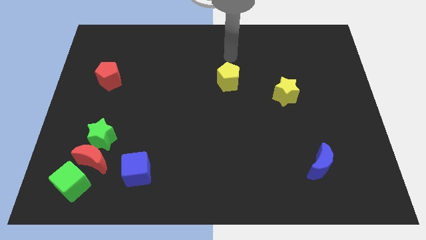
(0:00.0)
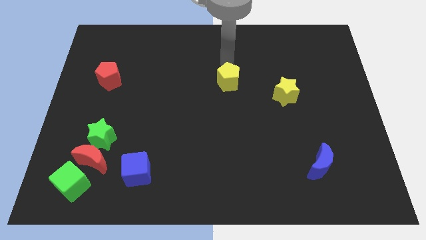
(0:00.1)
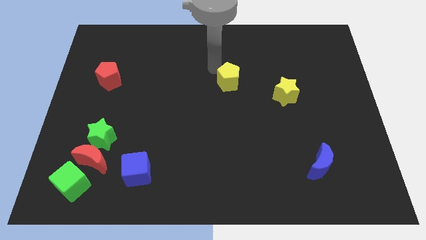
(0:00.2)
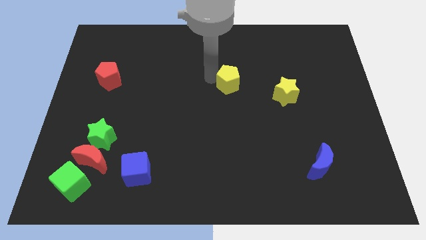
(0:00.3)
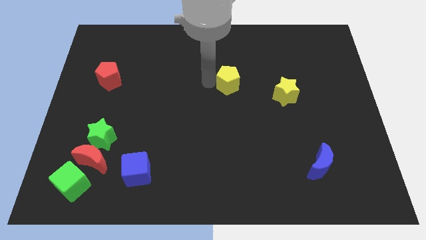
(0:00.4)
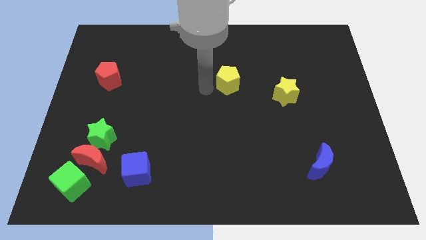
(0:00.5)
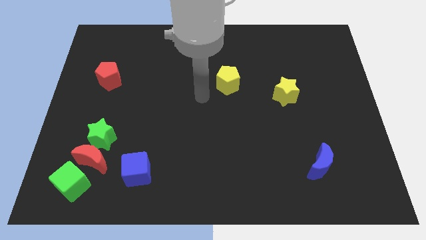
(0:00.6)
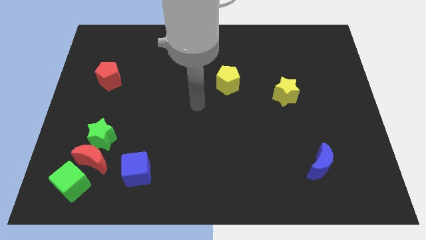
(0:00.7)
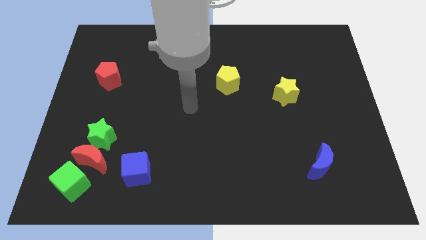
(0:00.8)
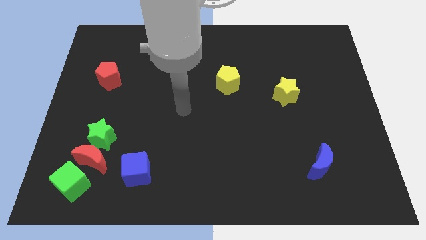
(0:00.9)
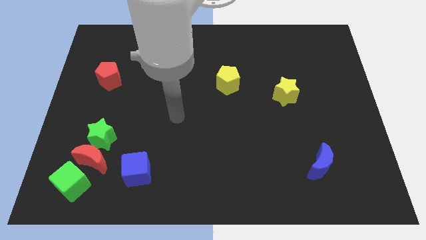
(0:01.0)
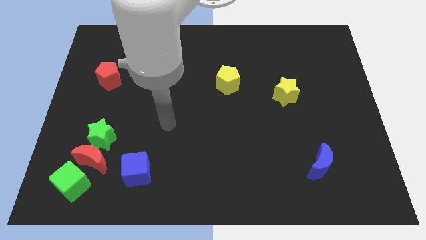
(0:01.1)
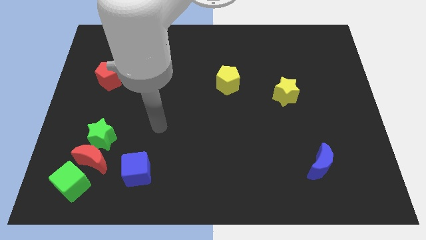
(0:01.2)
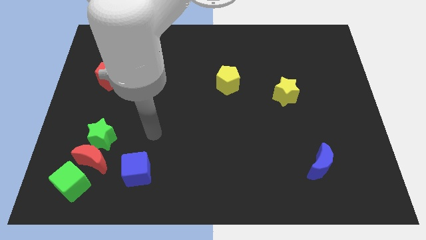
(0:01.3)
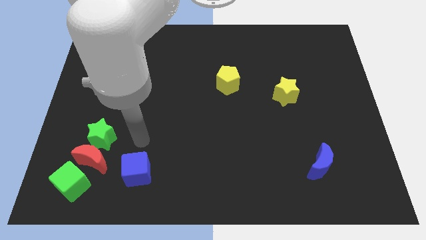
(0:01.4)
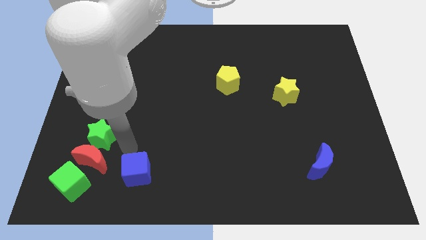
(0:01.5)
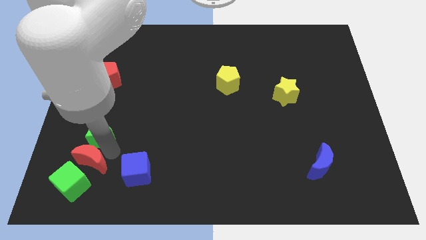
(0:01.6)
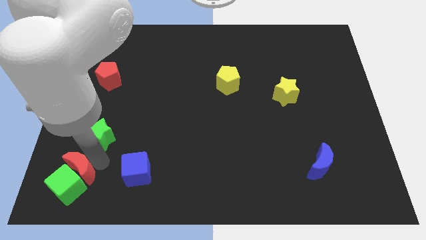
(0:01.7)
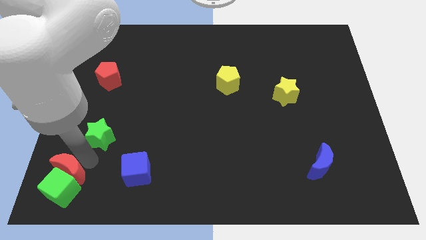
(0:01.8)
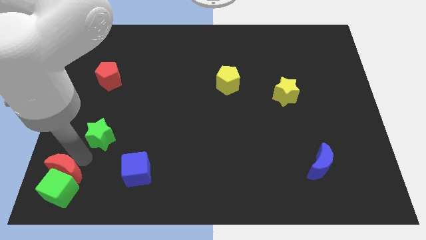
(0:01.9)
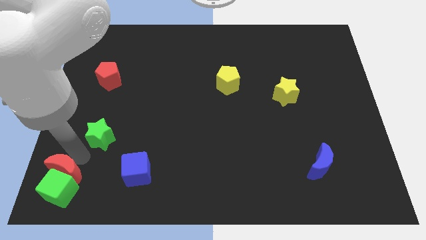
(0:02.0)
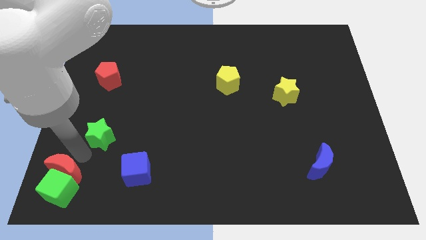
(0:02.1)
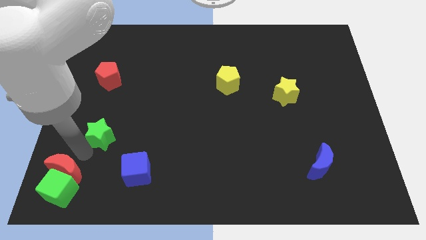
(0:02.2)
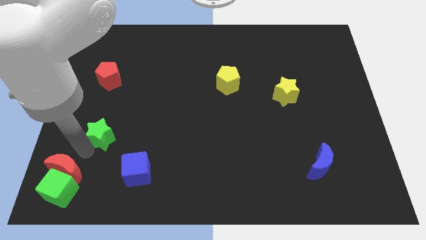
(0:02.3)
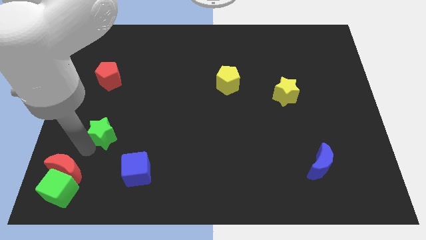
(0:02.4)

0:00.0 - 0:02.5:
pull the green star apart from the red moon

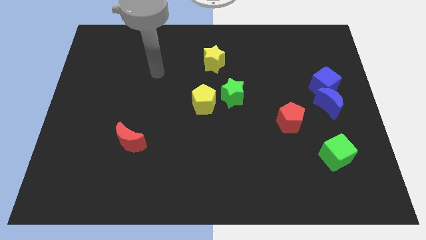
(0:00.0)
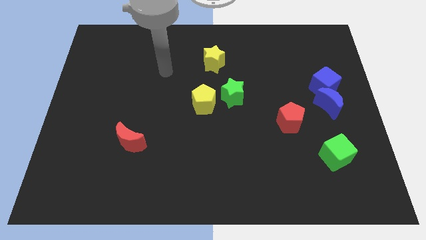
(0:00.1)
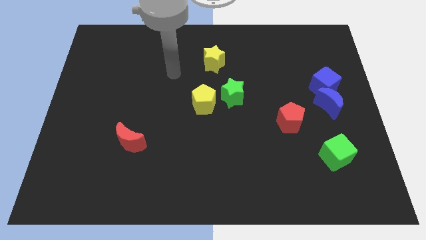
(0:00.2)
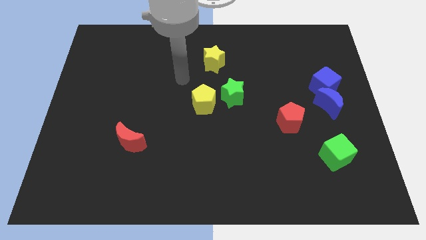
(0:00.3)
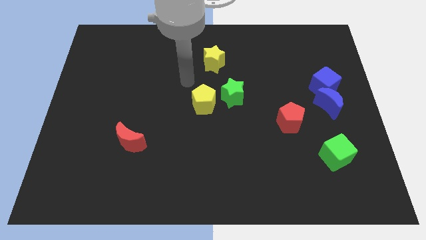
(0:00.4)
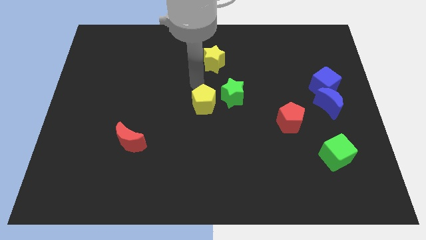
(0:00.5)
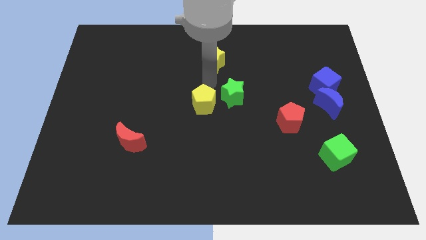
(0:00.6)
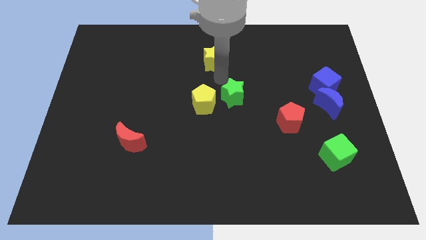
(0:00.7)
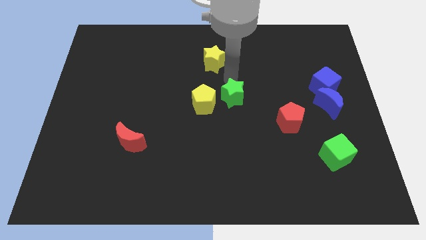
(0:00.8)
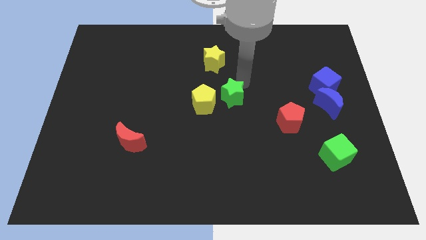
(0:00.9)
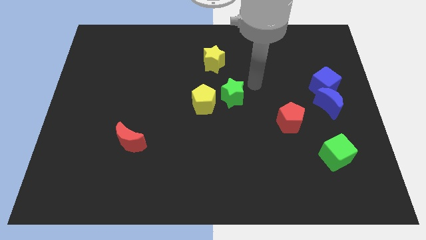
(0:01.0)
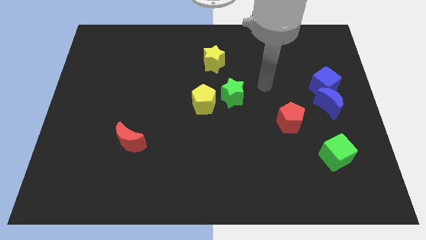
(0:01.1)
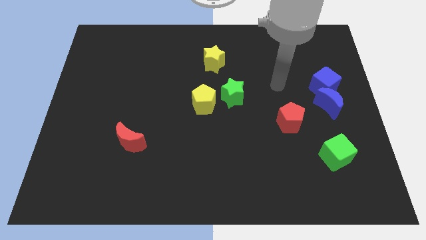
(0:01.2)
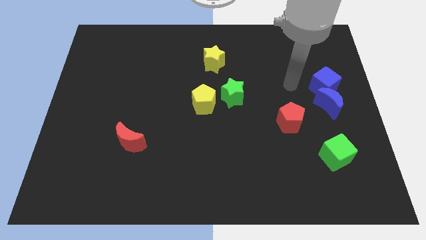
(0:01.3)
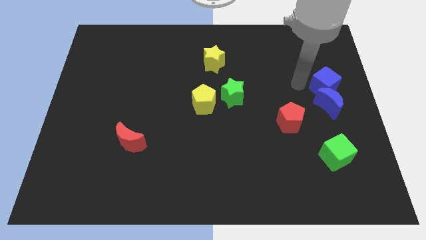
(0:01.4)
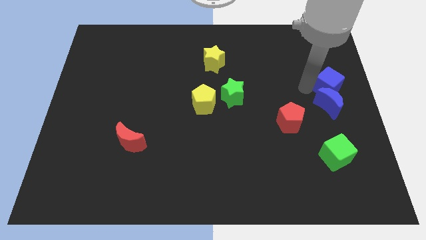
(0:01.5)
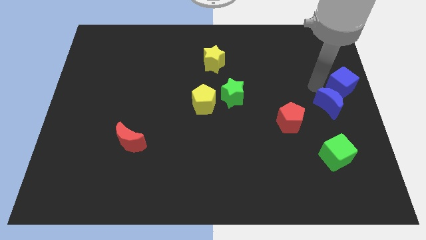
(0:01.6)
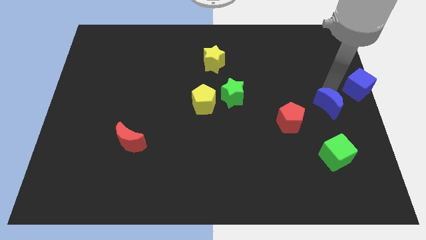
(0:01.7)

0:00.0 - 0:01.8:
pull the blue moon apart from the blue cube

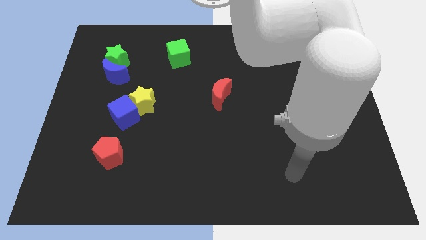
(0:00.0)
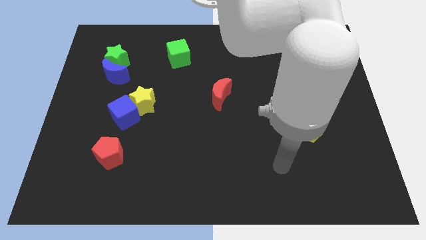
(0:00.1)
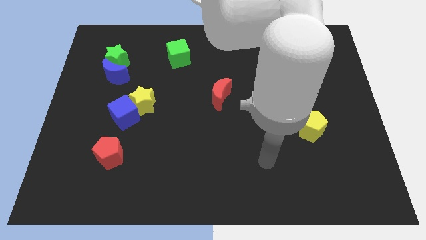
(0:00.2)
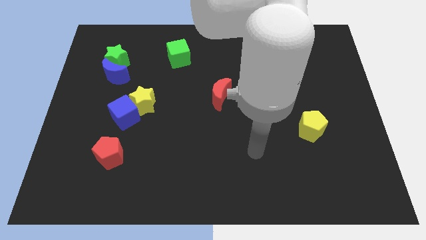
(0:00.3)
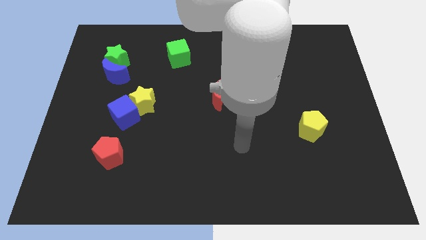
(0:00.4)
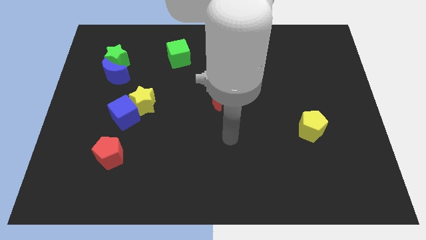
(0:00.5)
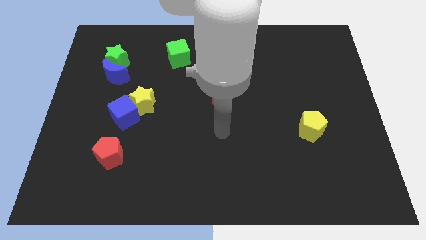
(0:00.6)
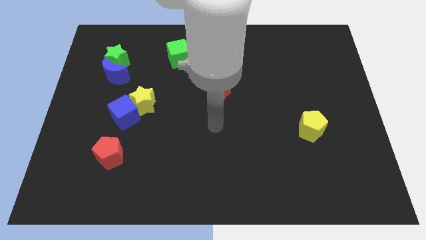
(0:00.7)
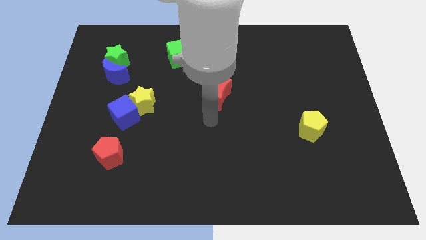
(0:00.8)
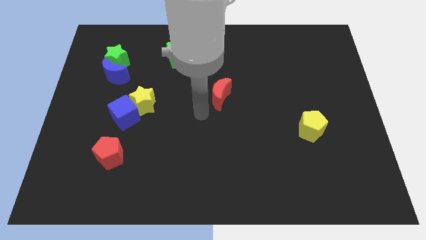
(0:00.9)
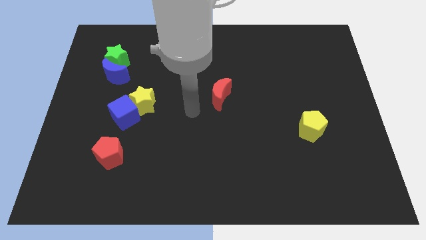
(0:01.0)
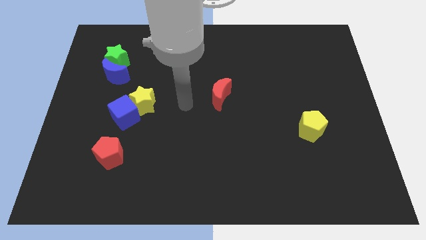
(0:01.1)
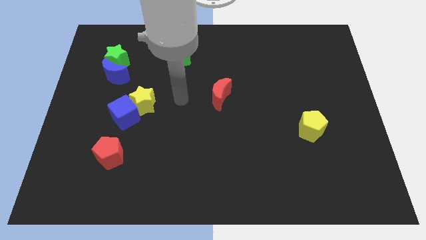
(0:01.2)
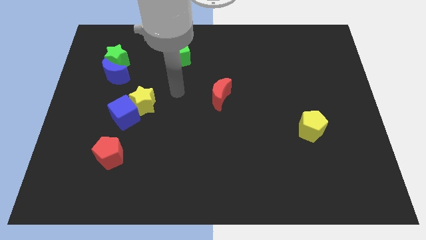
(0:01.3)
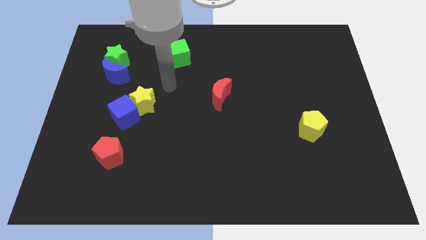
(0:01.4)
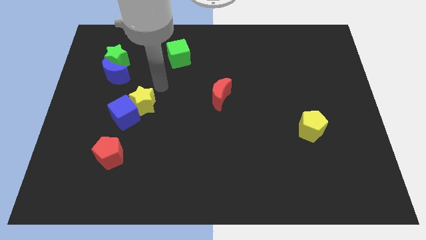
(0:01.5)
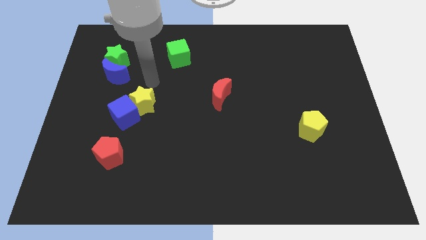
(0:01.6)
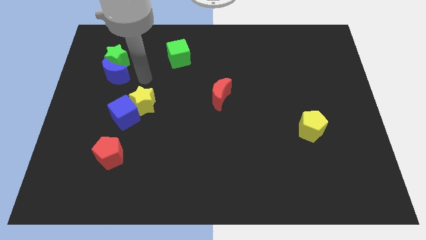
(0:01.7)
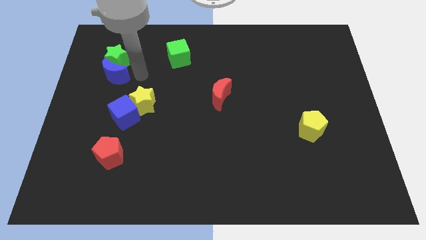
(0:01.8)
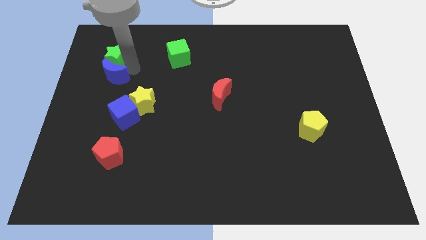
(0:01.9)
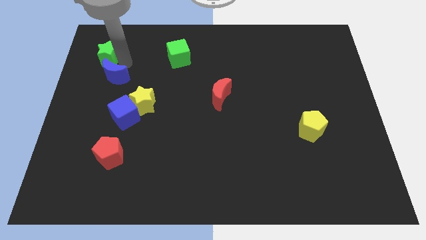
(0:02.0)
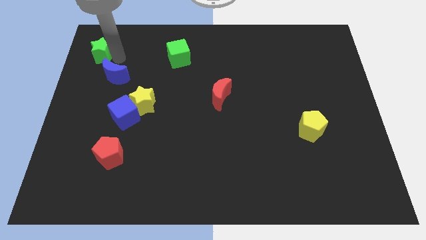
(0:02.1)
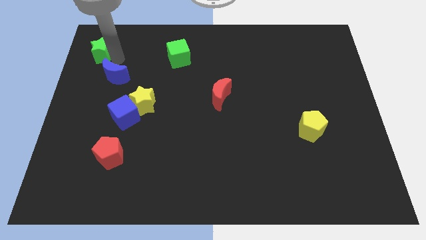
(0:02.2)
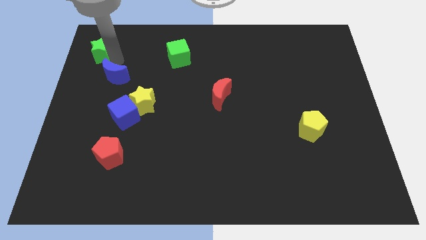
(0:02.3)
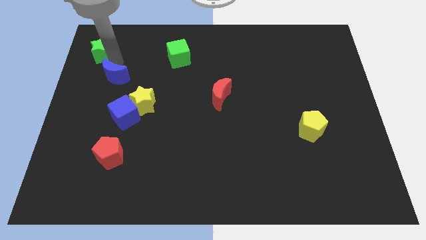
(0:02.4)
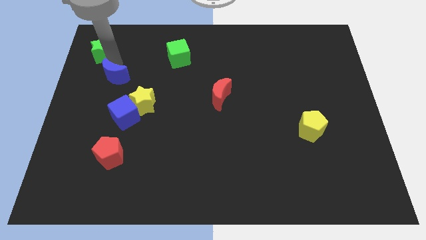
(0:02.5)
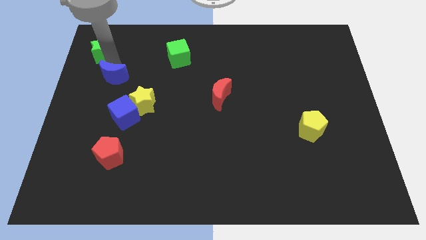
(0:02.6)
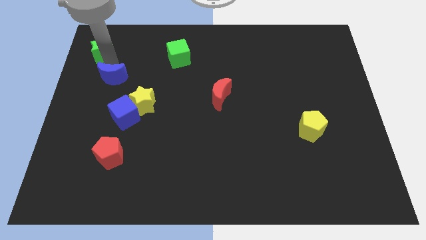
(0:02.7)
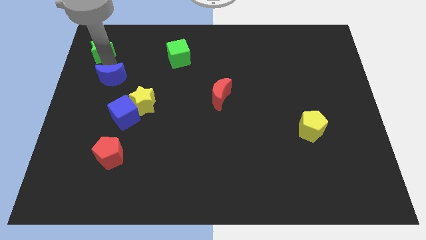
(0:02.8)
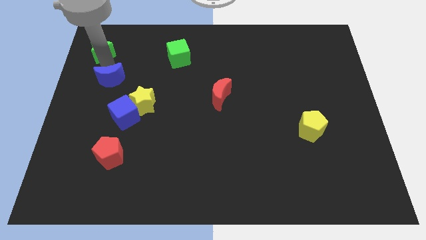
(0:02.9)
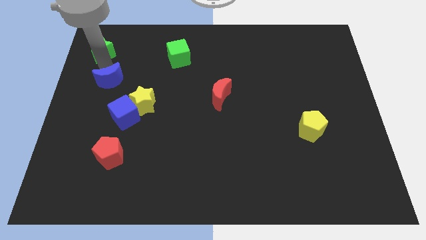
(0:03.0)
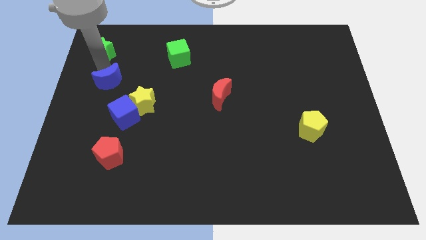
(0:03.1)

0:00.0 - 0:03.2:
separate the blue moon from the green star

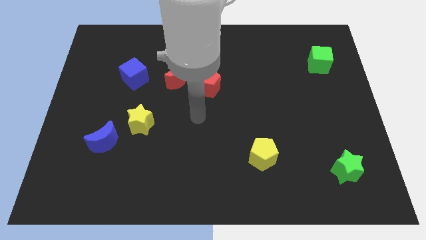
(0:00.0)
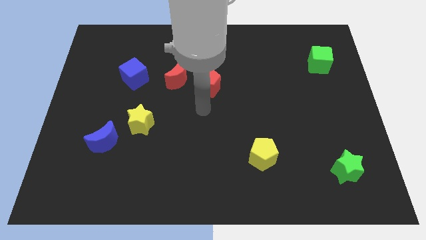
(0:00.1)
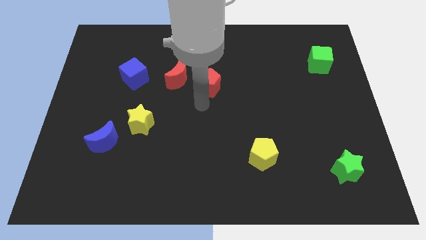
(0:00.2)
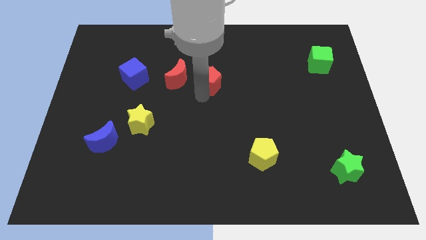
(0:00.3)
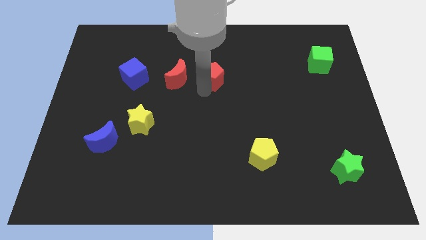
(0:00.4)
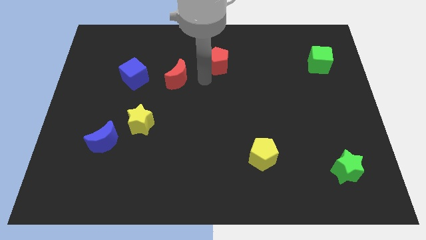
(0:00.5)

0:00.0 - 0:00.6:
pull the red moon apart from the red pentagon

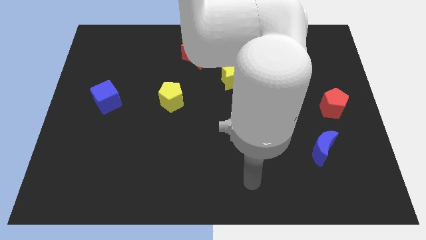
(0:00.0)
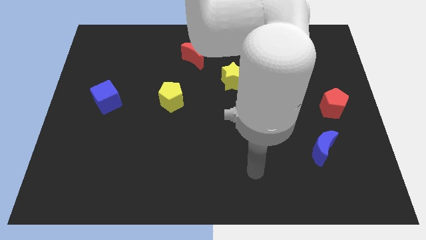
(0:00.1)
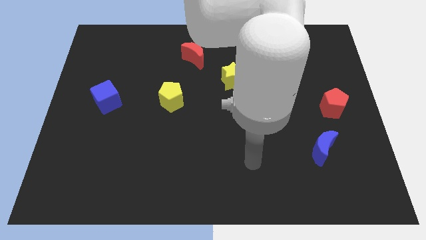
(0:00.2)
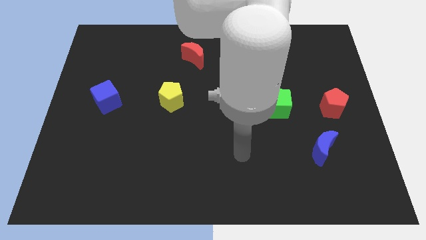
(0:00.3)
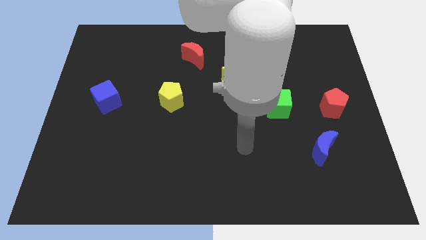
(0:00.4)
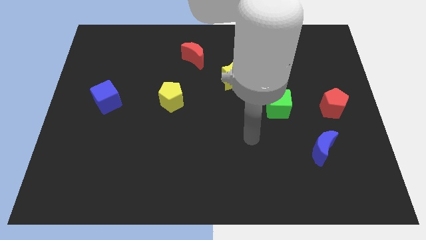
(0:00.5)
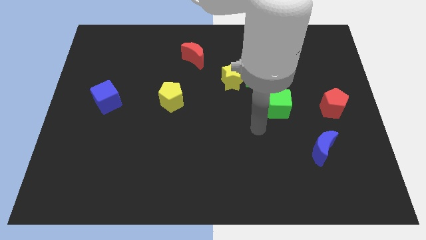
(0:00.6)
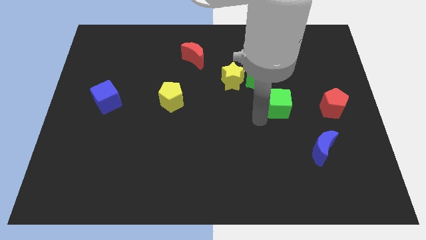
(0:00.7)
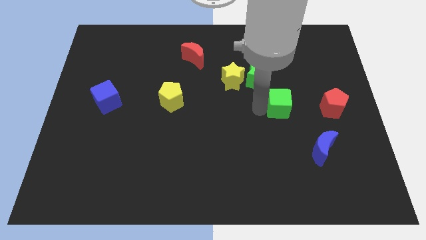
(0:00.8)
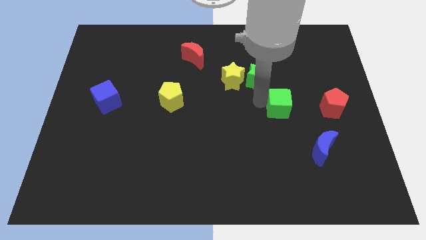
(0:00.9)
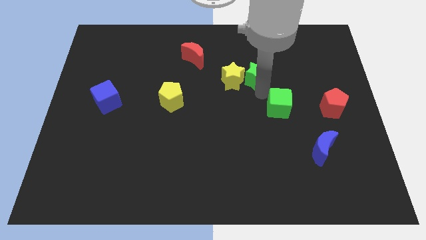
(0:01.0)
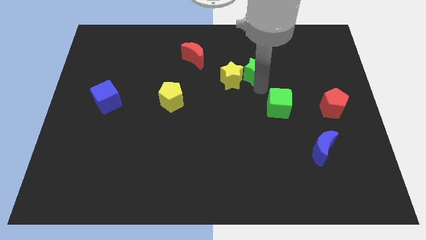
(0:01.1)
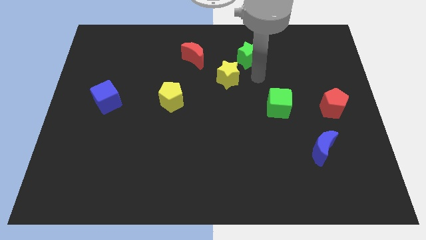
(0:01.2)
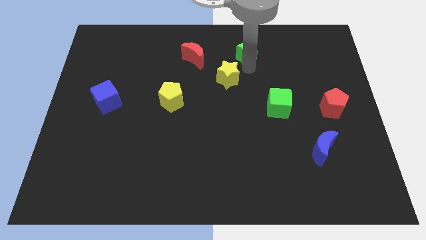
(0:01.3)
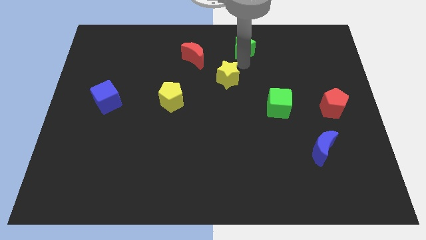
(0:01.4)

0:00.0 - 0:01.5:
pull the yellow star apart from the green star
